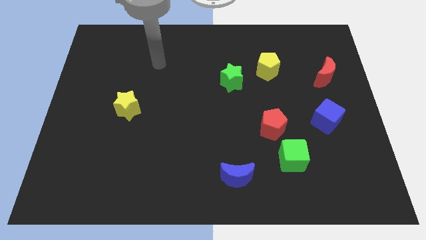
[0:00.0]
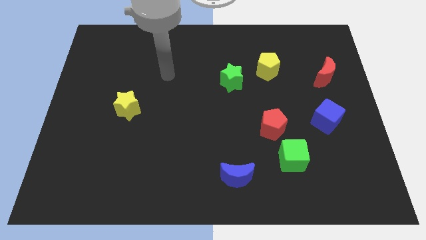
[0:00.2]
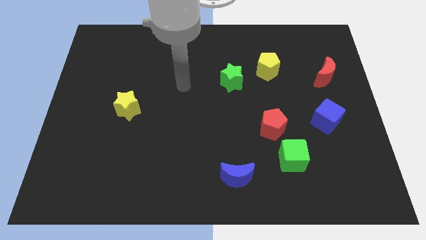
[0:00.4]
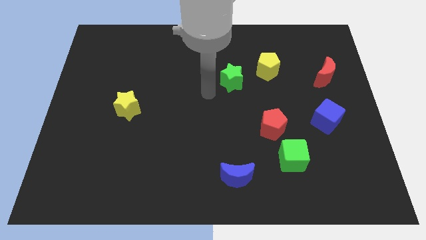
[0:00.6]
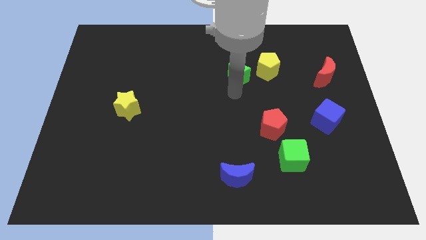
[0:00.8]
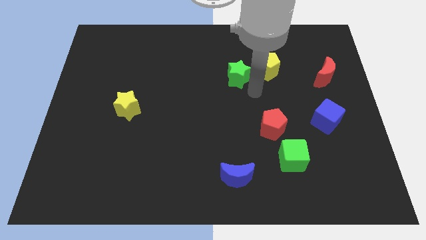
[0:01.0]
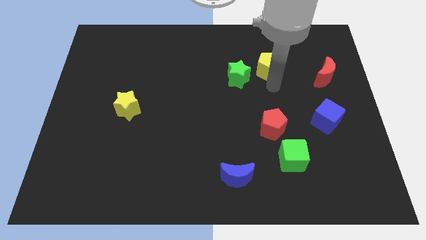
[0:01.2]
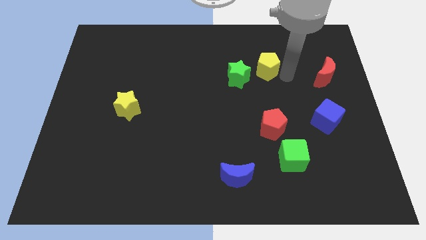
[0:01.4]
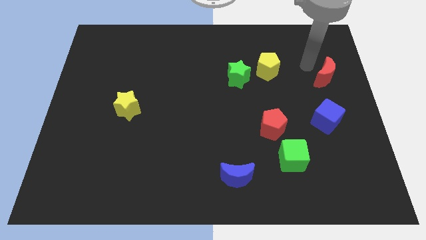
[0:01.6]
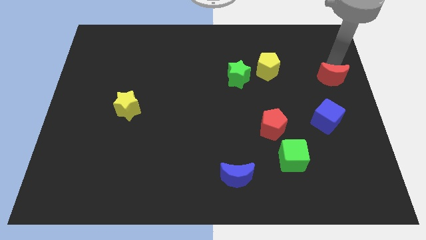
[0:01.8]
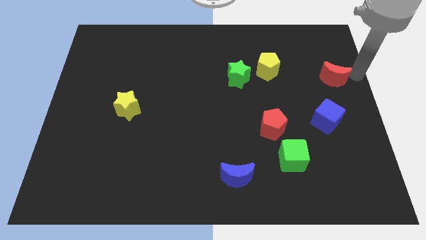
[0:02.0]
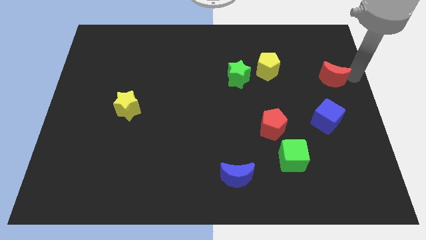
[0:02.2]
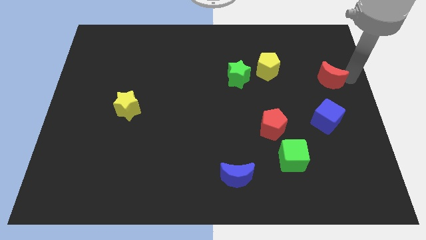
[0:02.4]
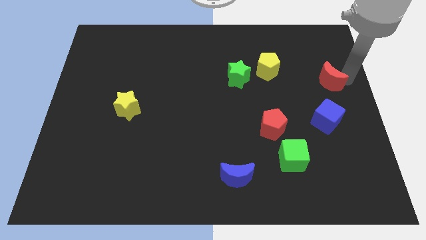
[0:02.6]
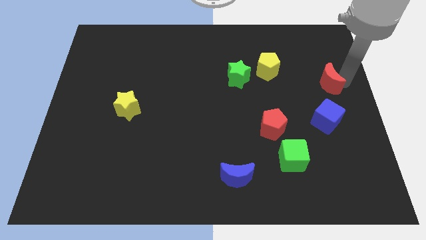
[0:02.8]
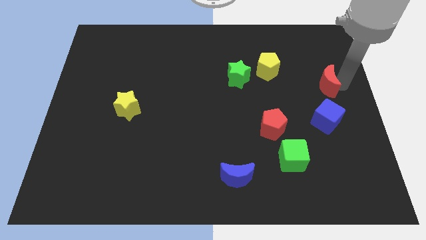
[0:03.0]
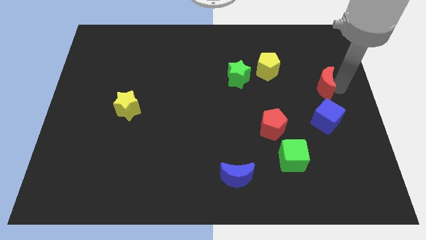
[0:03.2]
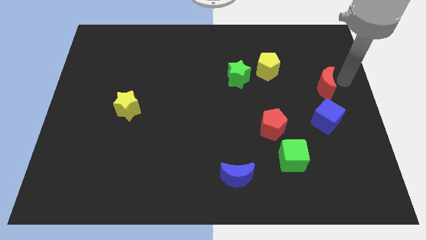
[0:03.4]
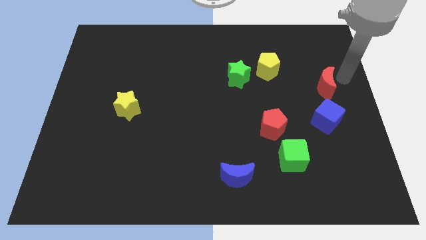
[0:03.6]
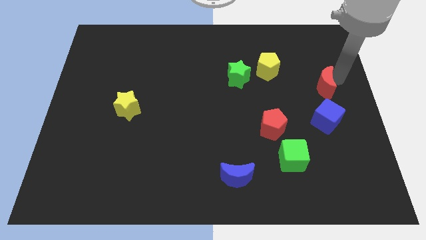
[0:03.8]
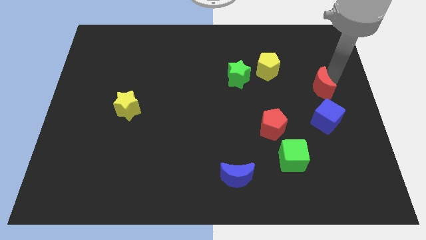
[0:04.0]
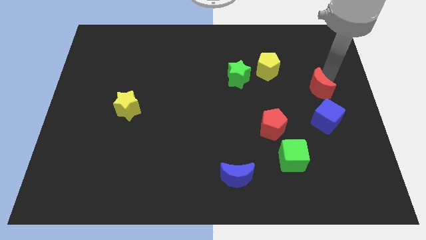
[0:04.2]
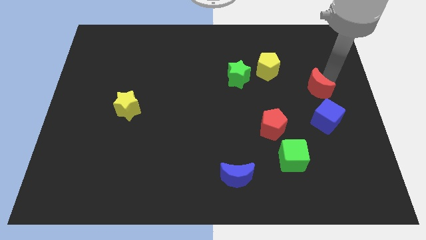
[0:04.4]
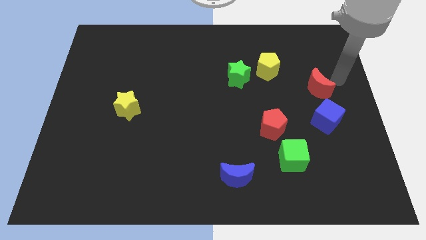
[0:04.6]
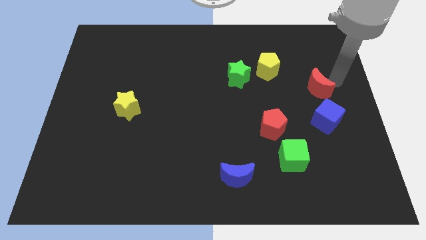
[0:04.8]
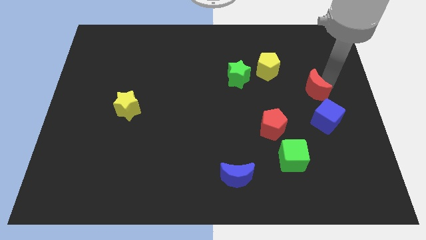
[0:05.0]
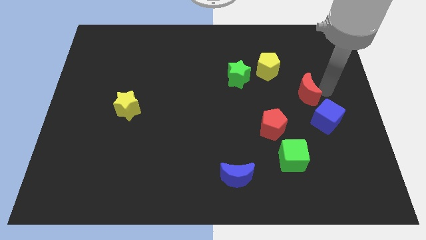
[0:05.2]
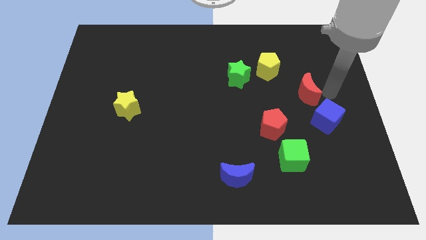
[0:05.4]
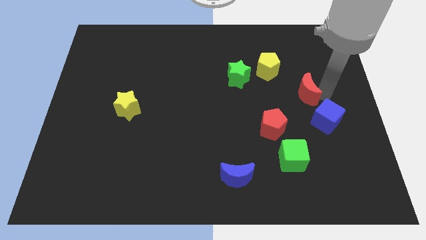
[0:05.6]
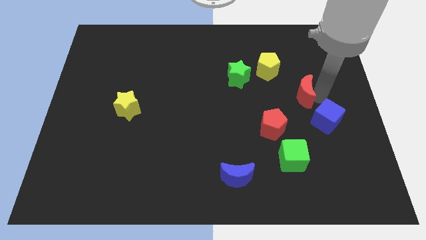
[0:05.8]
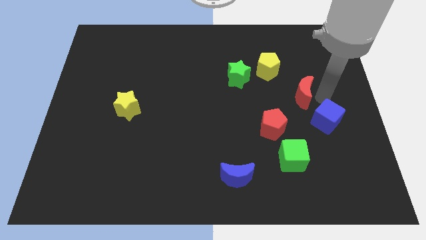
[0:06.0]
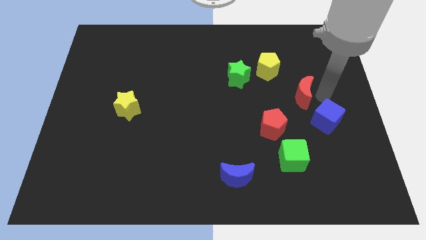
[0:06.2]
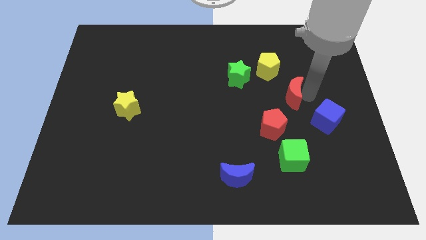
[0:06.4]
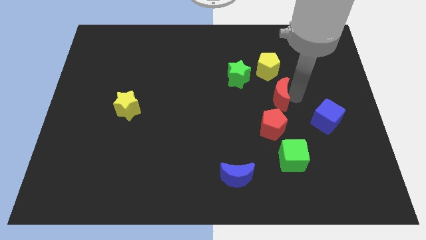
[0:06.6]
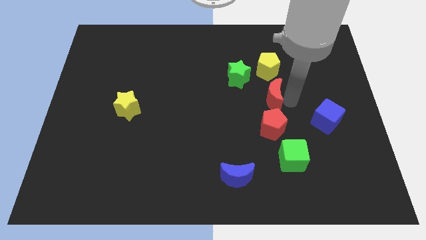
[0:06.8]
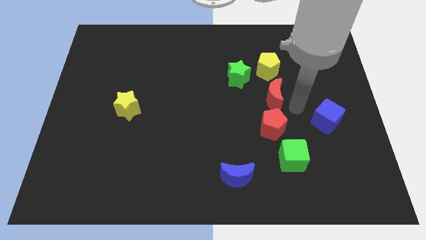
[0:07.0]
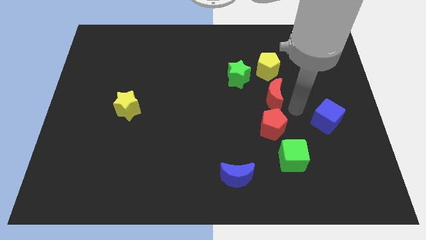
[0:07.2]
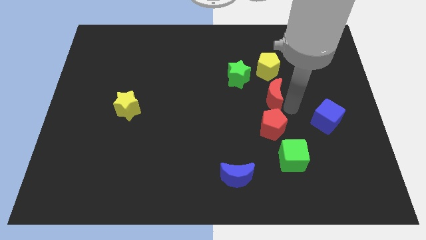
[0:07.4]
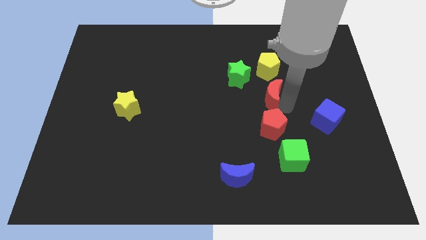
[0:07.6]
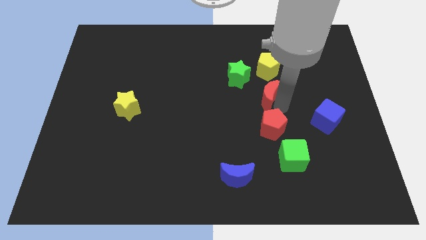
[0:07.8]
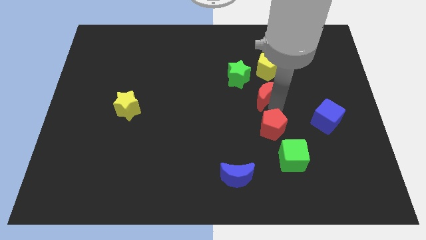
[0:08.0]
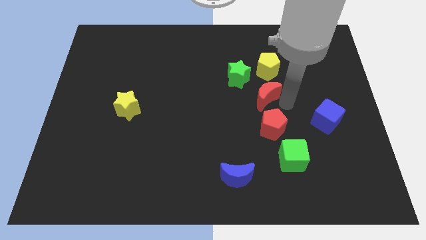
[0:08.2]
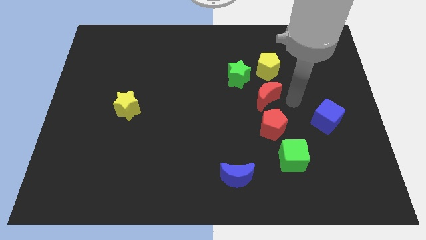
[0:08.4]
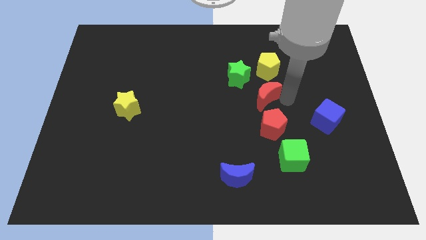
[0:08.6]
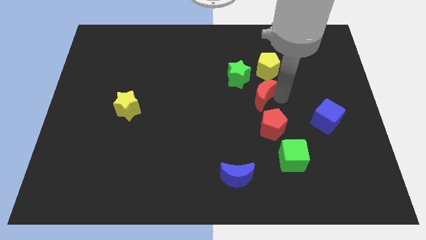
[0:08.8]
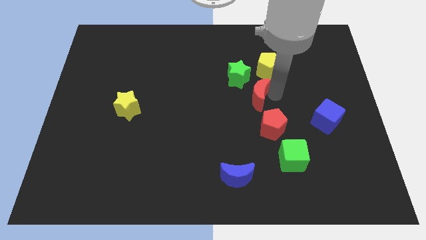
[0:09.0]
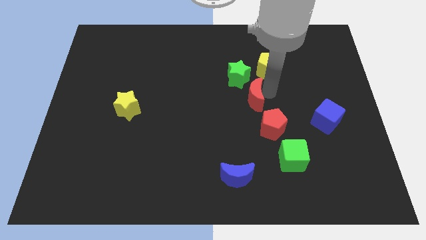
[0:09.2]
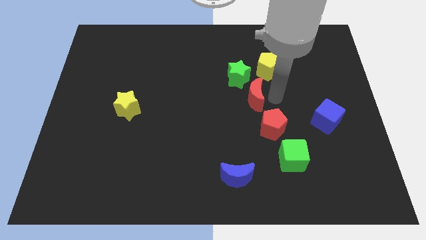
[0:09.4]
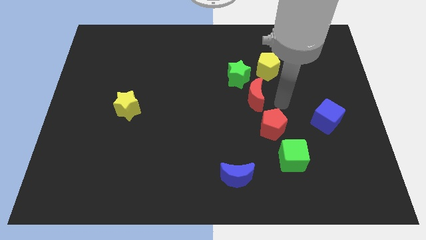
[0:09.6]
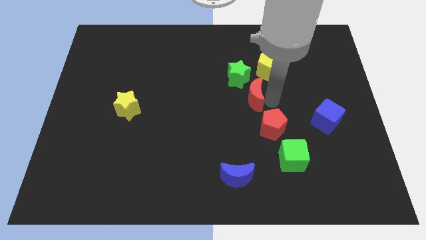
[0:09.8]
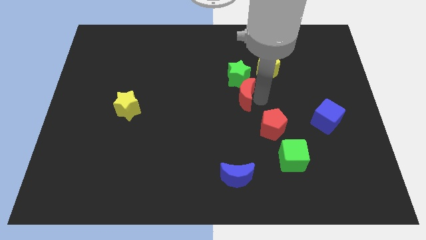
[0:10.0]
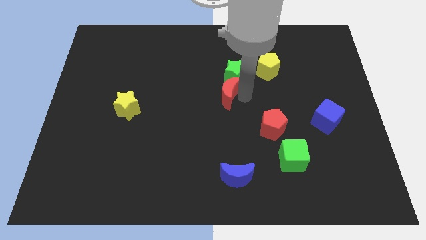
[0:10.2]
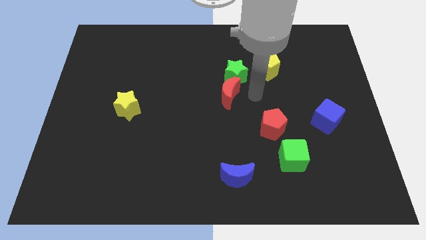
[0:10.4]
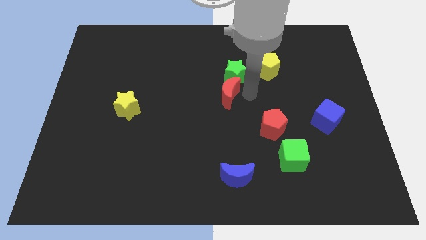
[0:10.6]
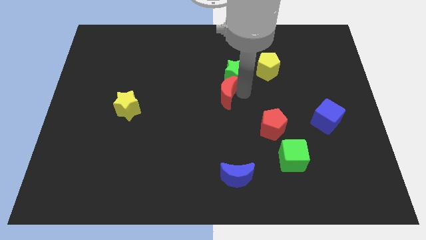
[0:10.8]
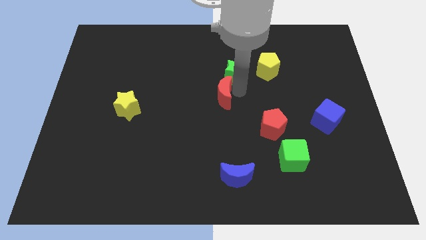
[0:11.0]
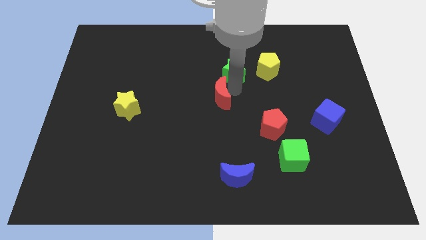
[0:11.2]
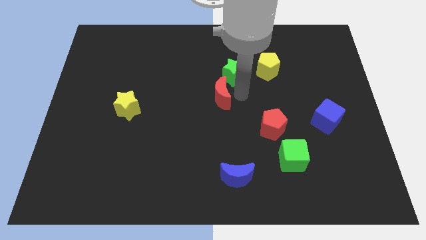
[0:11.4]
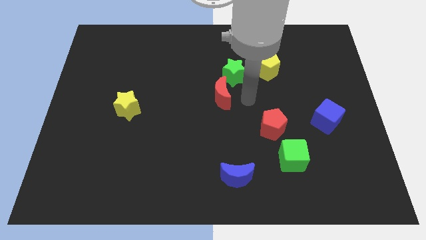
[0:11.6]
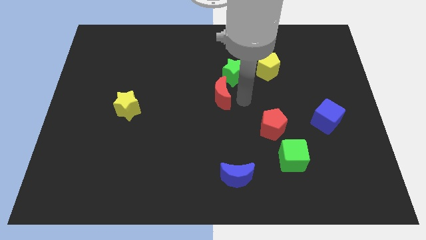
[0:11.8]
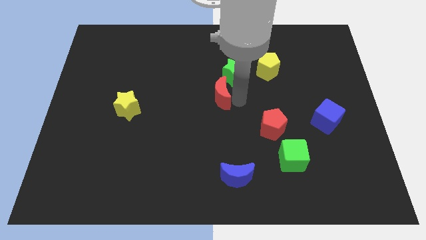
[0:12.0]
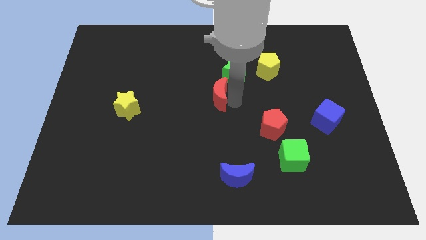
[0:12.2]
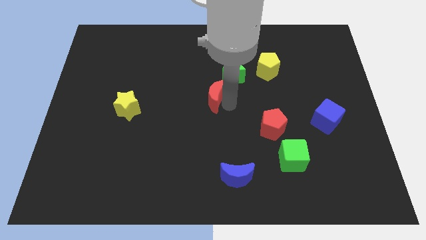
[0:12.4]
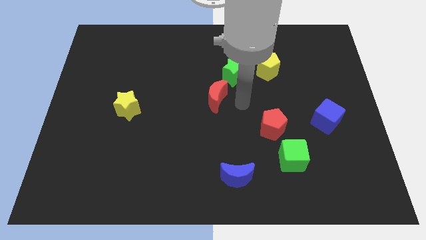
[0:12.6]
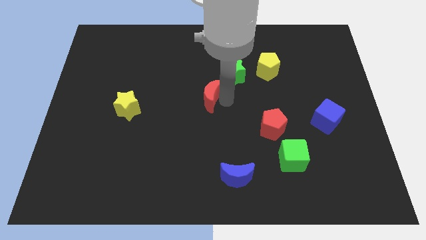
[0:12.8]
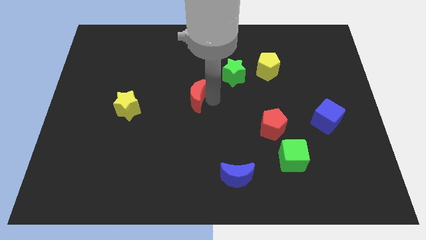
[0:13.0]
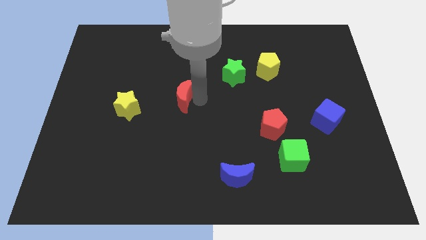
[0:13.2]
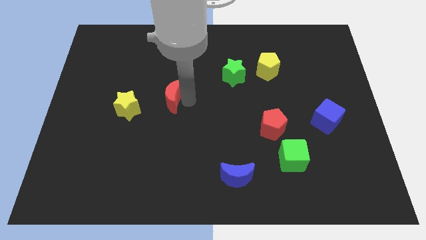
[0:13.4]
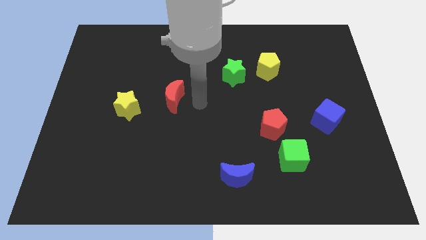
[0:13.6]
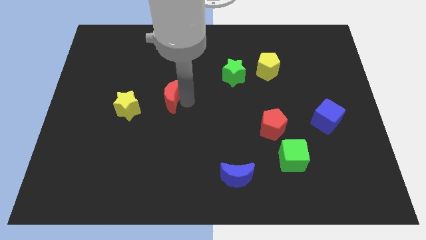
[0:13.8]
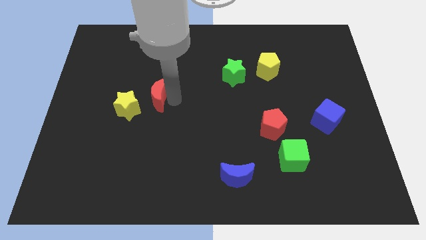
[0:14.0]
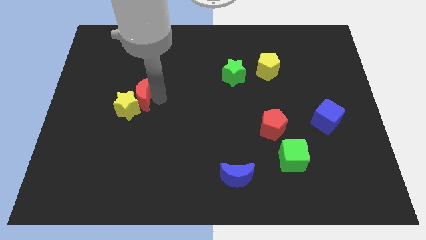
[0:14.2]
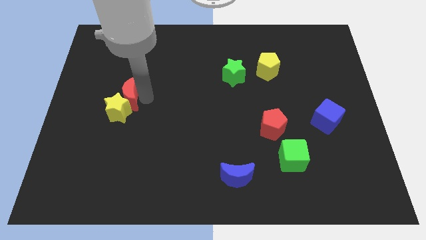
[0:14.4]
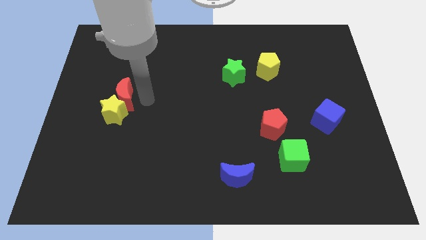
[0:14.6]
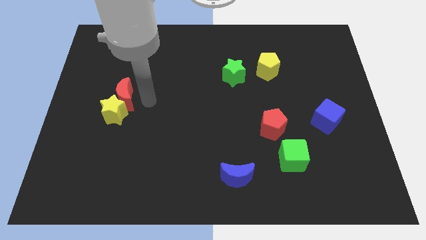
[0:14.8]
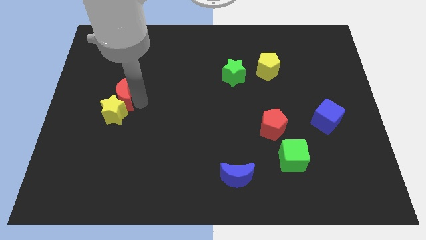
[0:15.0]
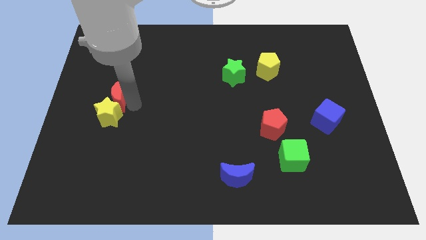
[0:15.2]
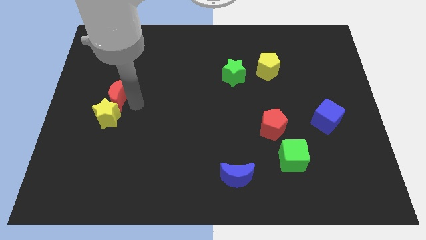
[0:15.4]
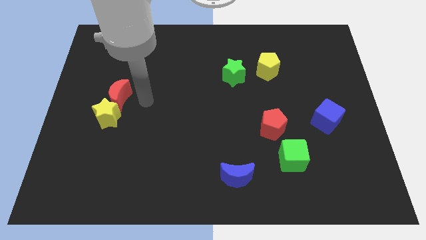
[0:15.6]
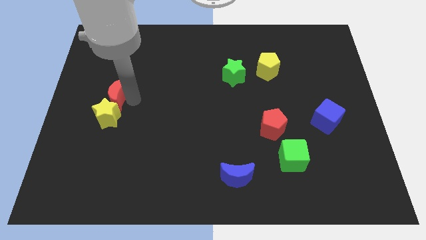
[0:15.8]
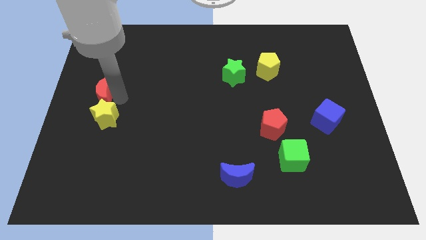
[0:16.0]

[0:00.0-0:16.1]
slide the red moon to the center left
